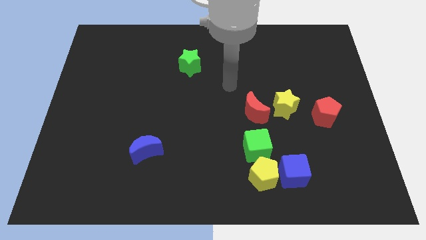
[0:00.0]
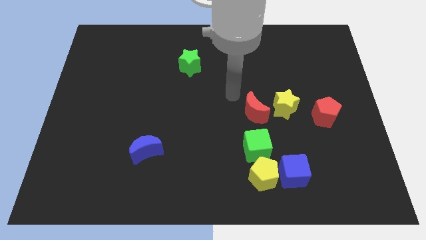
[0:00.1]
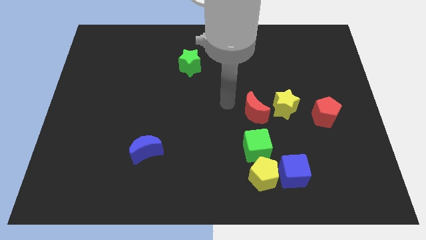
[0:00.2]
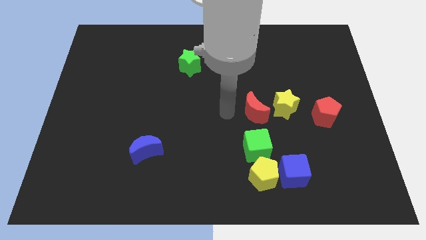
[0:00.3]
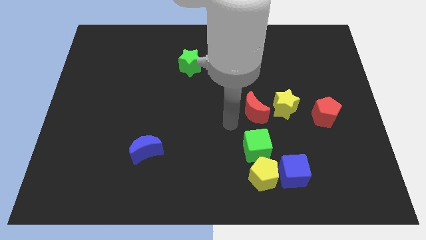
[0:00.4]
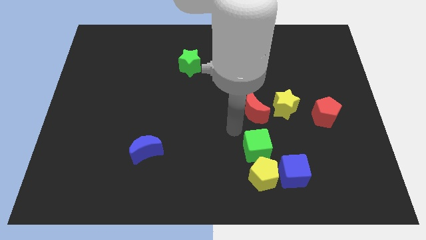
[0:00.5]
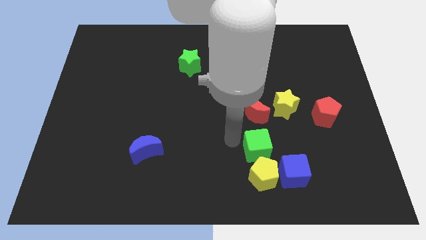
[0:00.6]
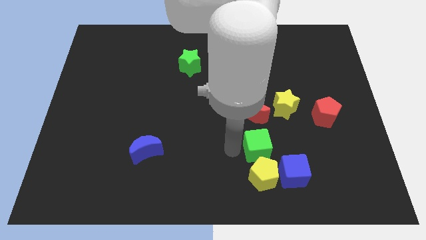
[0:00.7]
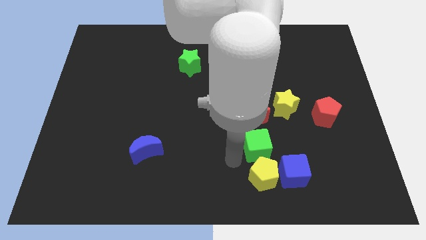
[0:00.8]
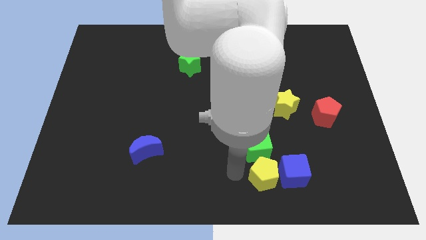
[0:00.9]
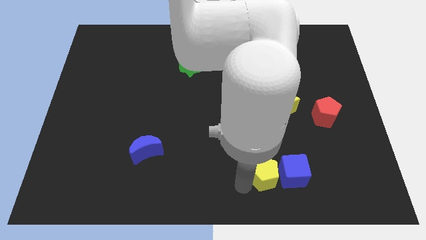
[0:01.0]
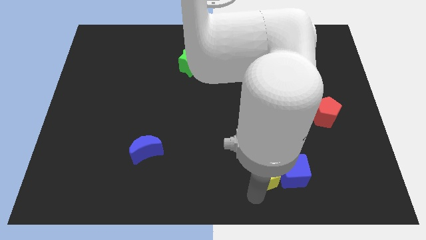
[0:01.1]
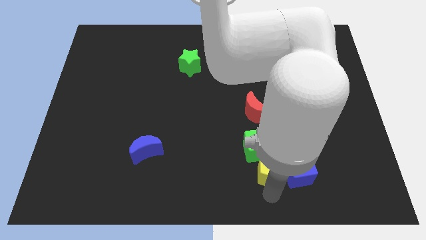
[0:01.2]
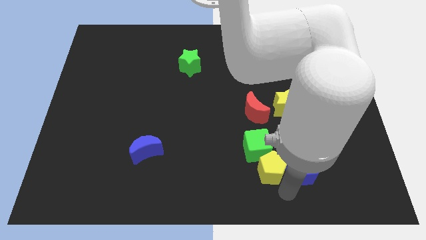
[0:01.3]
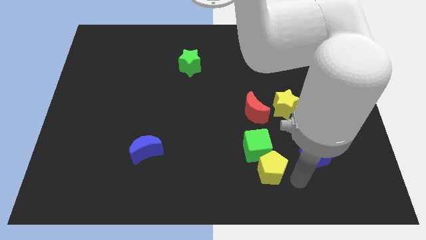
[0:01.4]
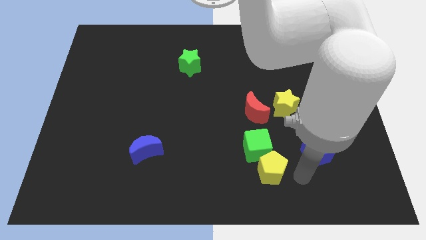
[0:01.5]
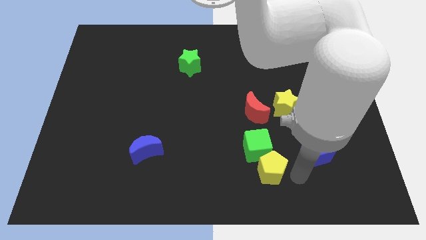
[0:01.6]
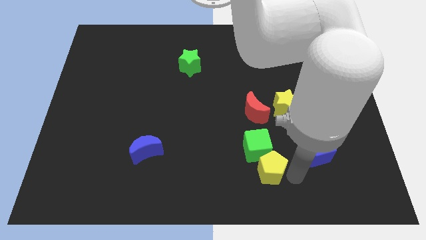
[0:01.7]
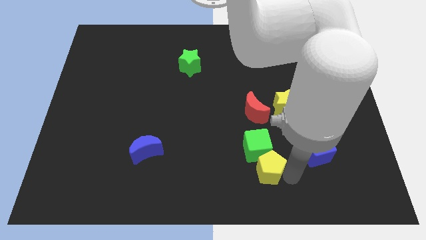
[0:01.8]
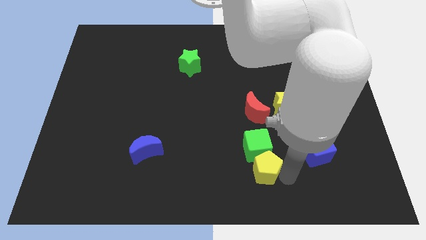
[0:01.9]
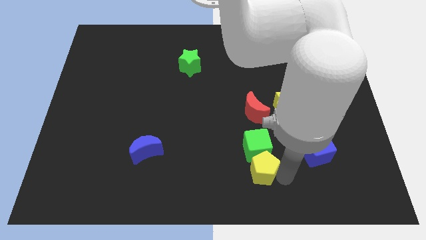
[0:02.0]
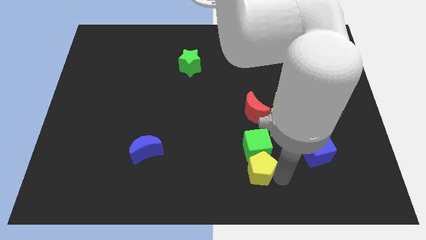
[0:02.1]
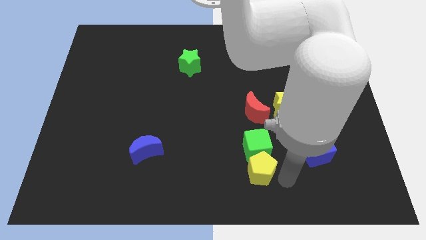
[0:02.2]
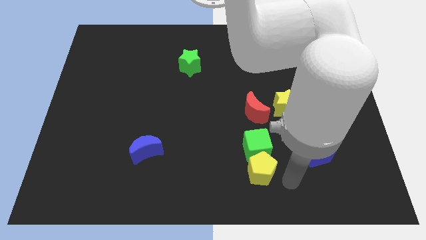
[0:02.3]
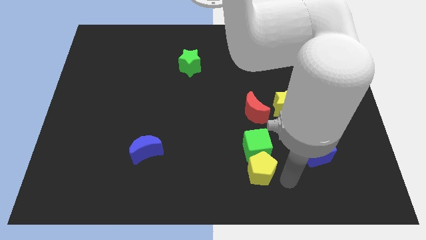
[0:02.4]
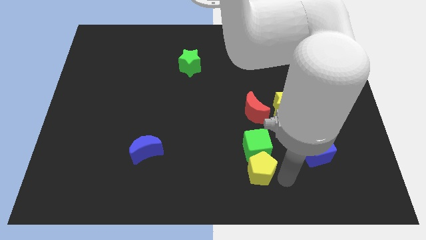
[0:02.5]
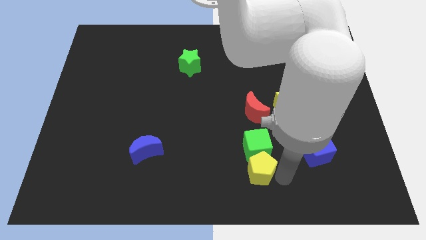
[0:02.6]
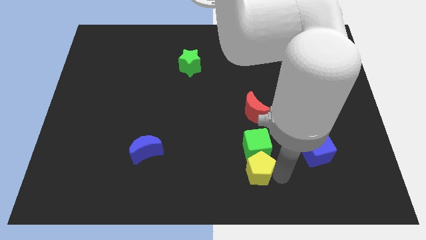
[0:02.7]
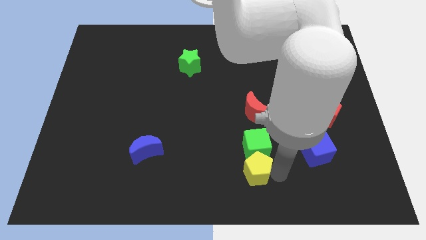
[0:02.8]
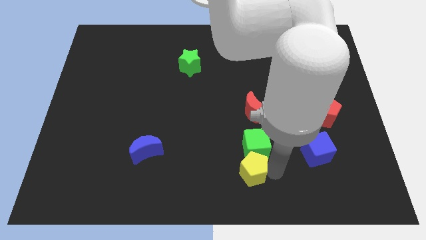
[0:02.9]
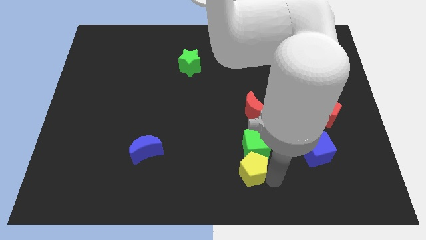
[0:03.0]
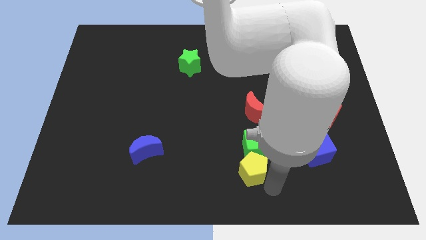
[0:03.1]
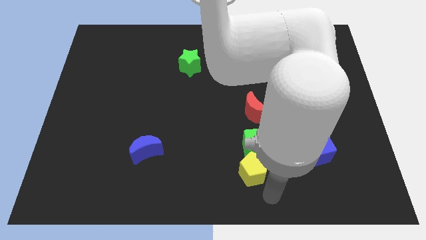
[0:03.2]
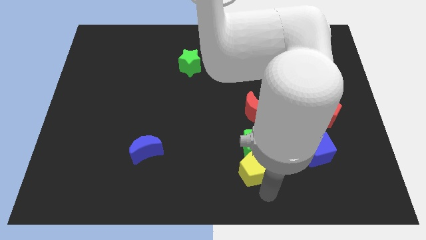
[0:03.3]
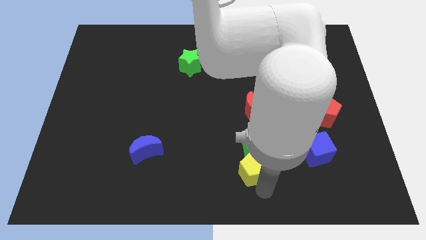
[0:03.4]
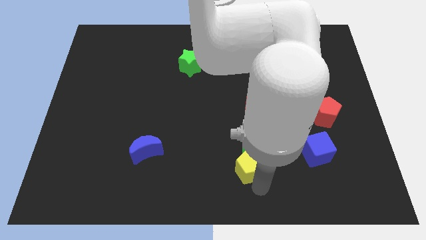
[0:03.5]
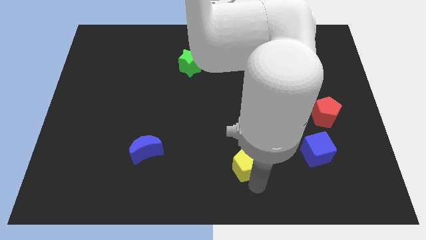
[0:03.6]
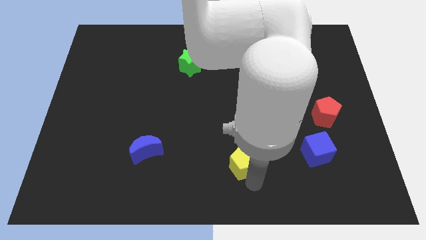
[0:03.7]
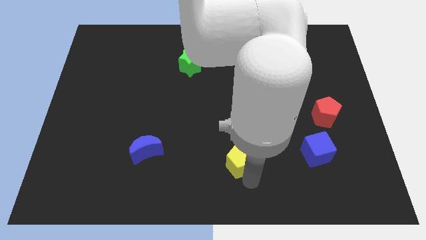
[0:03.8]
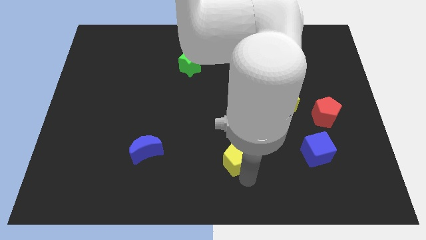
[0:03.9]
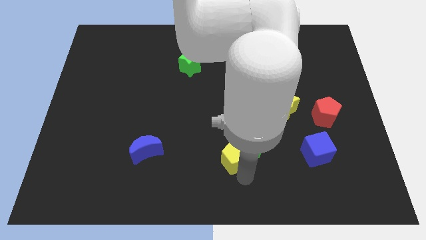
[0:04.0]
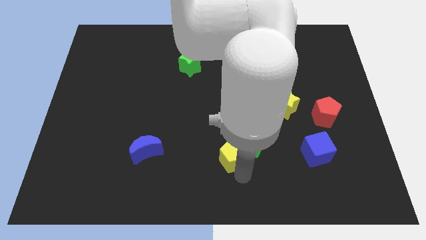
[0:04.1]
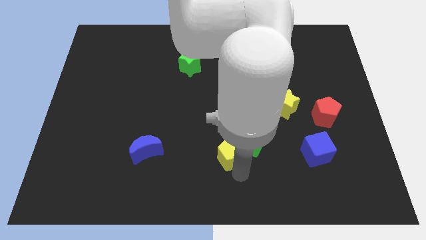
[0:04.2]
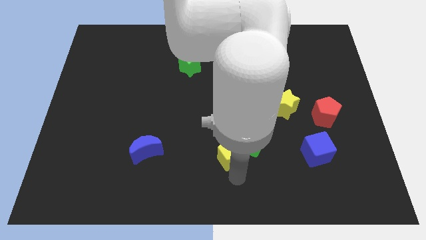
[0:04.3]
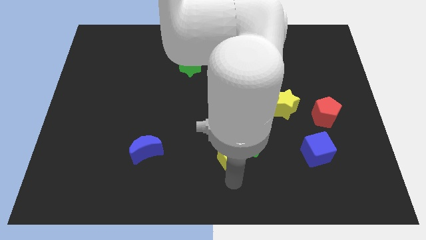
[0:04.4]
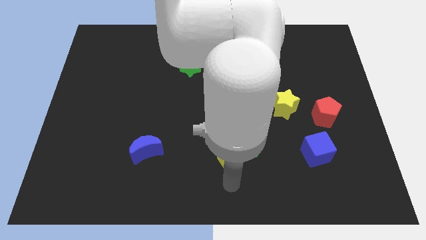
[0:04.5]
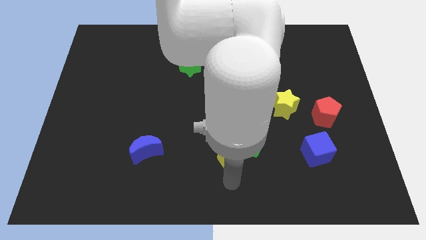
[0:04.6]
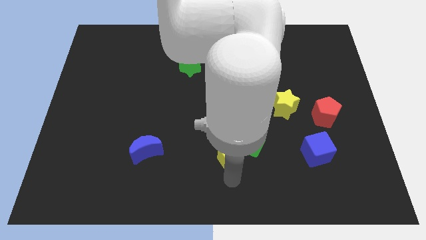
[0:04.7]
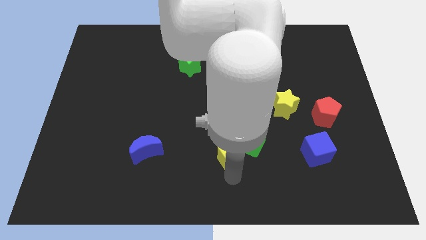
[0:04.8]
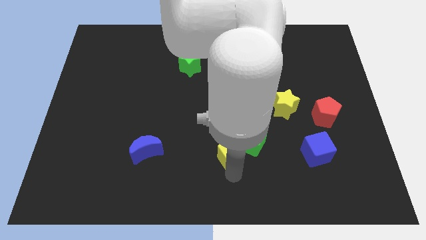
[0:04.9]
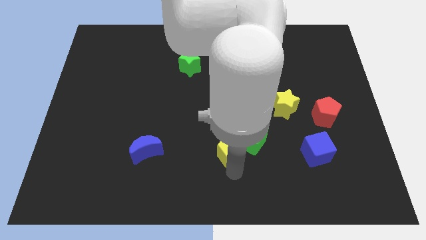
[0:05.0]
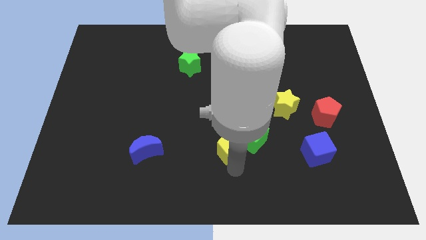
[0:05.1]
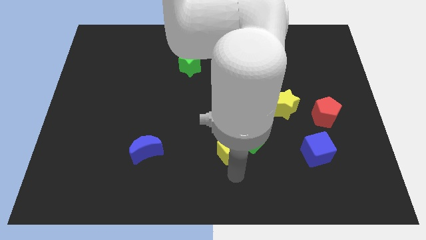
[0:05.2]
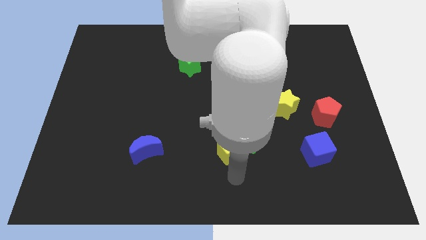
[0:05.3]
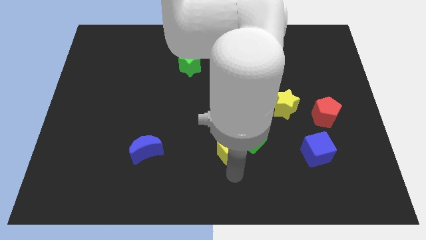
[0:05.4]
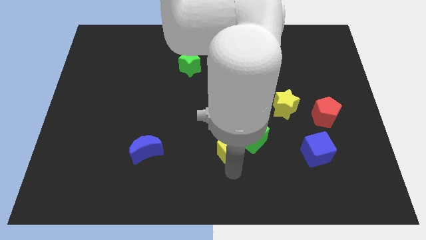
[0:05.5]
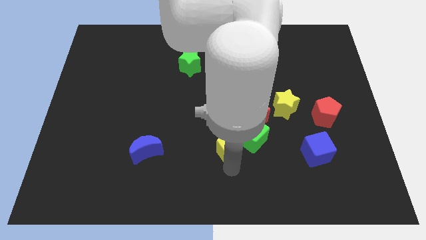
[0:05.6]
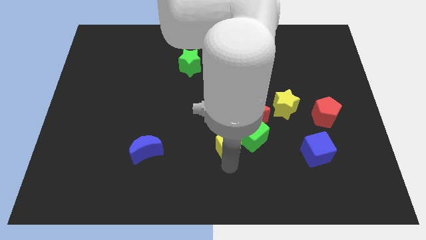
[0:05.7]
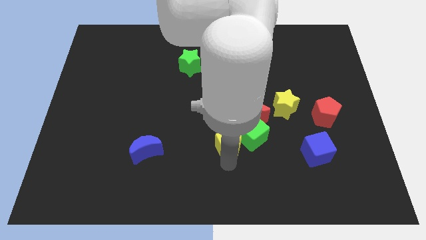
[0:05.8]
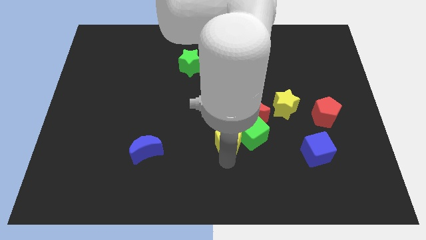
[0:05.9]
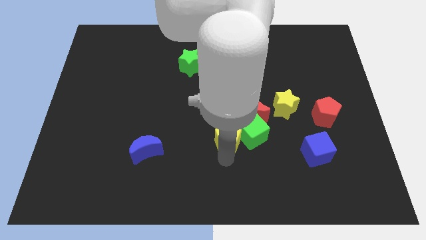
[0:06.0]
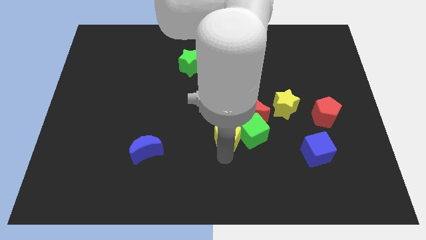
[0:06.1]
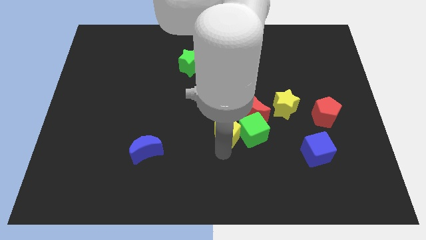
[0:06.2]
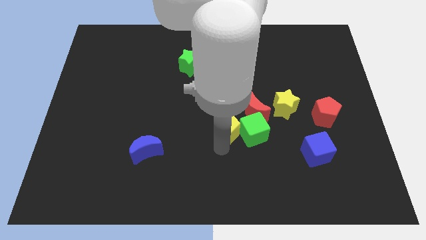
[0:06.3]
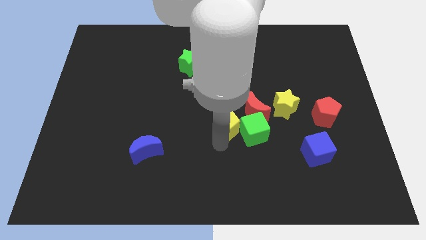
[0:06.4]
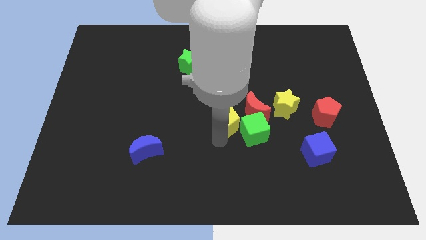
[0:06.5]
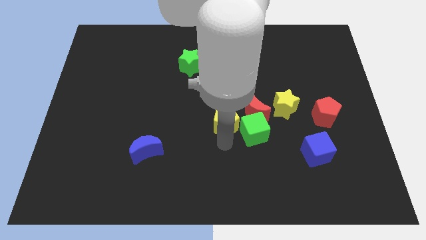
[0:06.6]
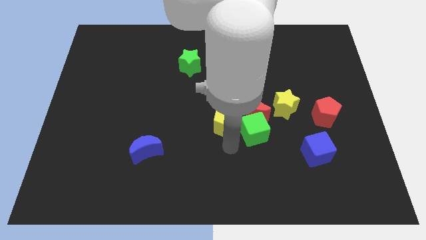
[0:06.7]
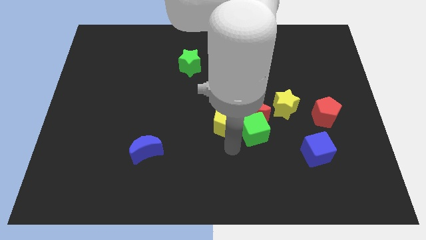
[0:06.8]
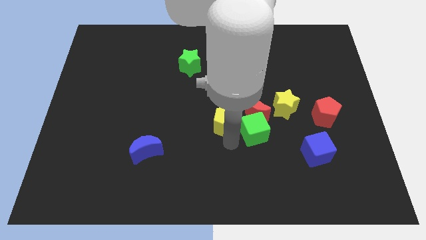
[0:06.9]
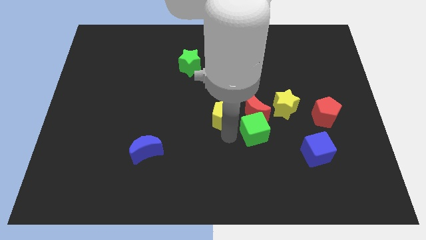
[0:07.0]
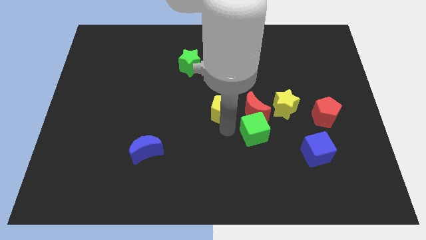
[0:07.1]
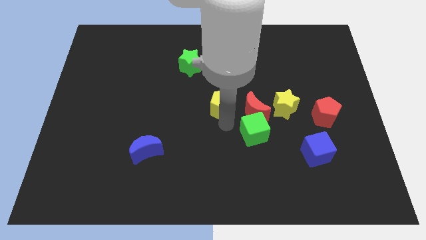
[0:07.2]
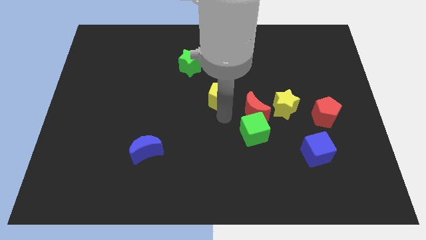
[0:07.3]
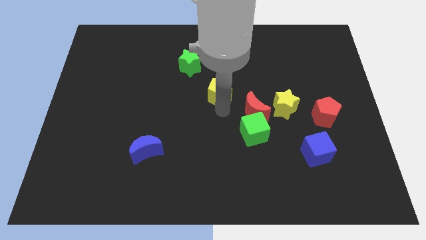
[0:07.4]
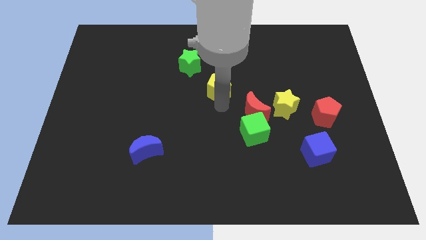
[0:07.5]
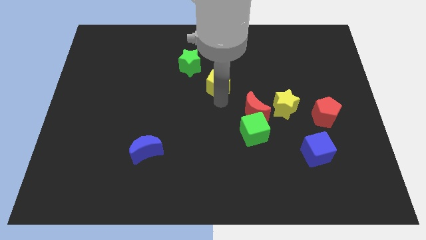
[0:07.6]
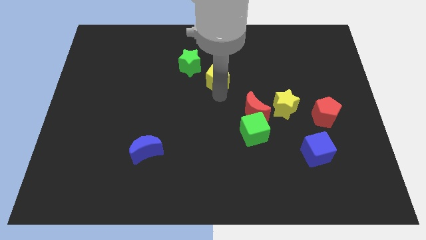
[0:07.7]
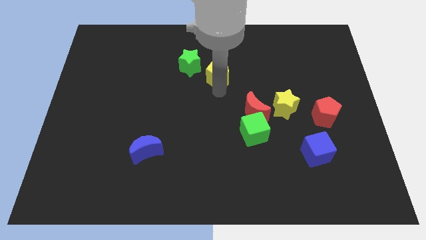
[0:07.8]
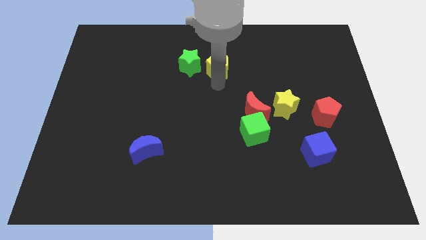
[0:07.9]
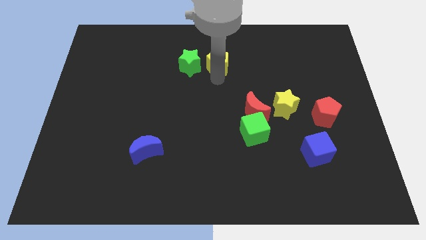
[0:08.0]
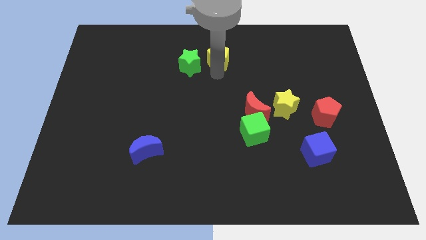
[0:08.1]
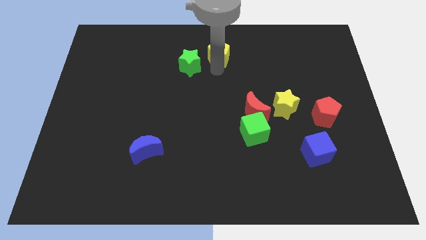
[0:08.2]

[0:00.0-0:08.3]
put the yellow pentagon to the towards your base
